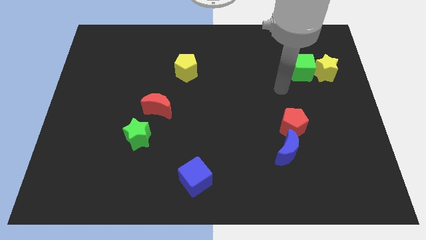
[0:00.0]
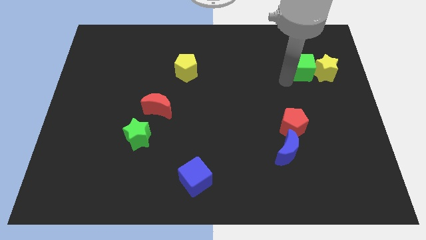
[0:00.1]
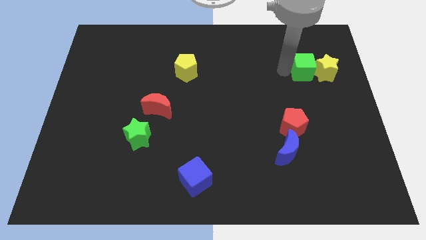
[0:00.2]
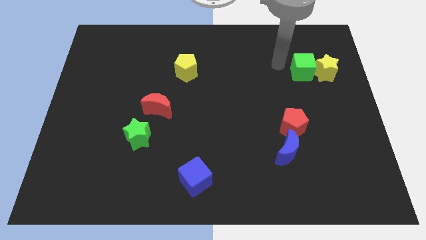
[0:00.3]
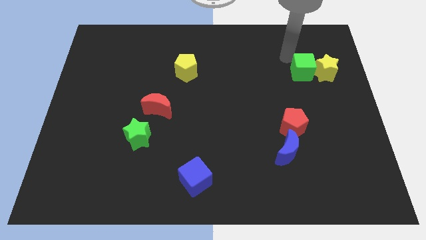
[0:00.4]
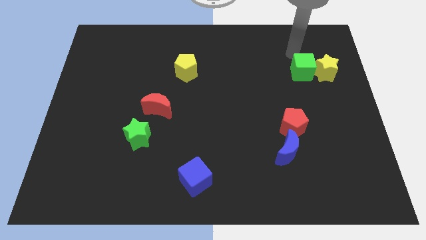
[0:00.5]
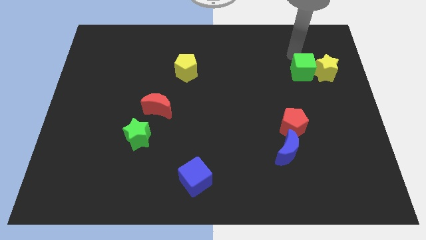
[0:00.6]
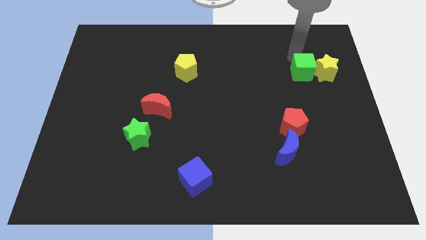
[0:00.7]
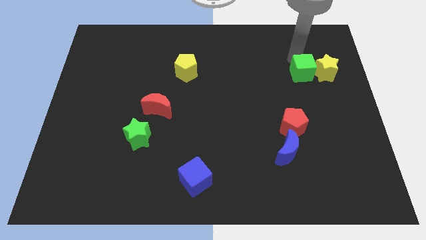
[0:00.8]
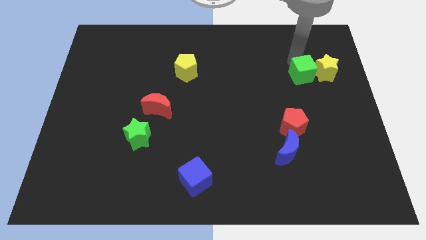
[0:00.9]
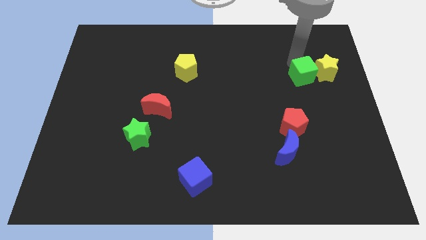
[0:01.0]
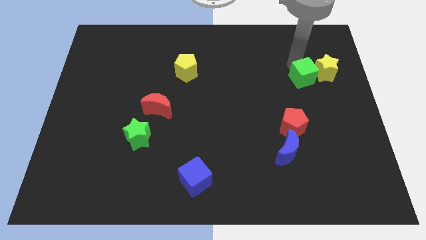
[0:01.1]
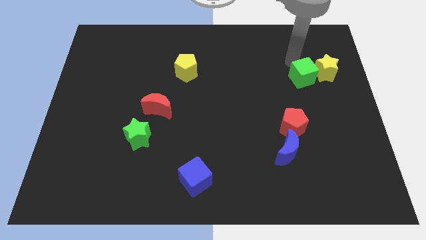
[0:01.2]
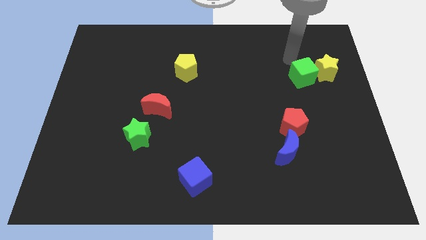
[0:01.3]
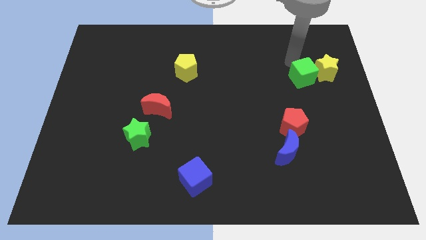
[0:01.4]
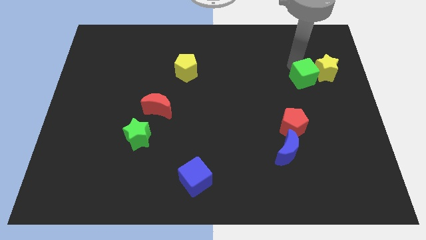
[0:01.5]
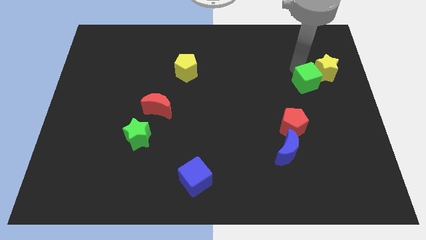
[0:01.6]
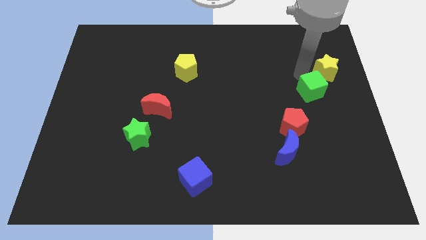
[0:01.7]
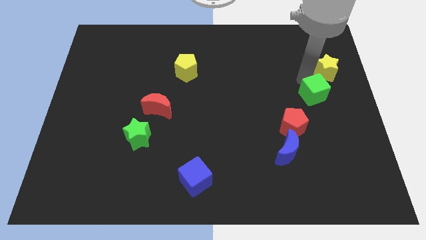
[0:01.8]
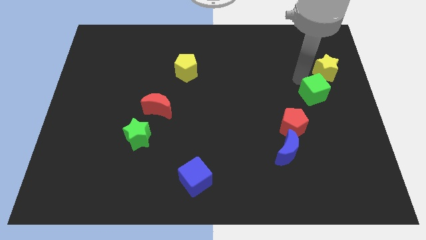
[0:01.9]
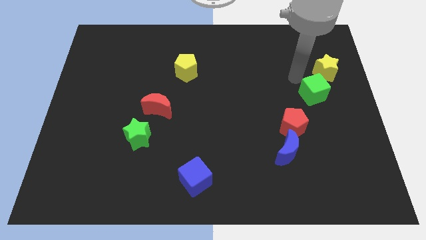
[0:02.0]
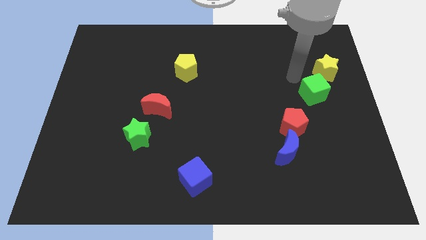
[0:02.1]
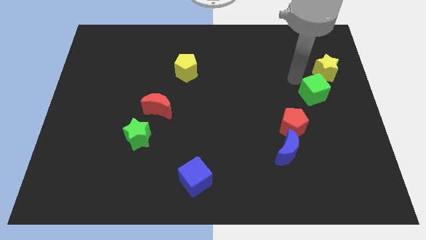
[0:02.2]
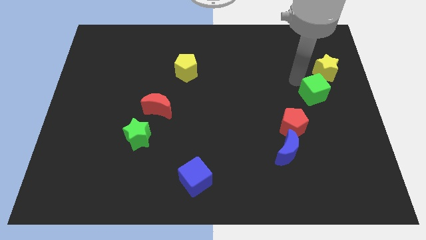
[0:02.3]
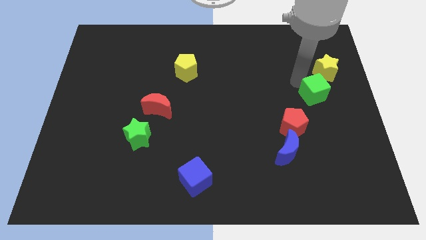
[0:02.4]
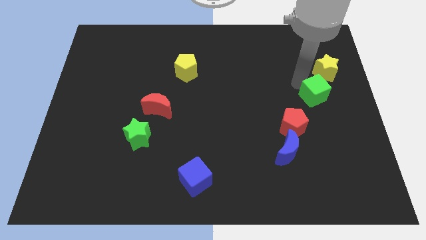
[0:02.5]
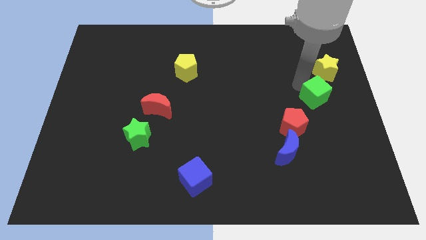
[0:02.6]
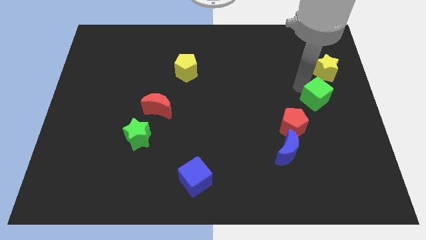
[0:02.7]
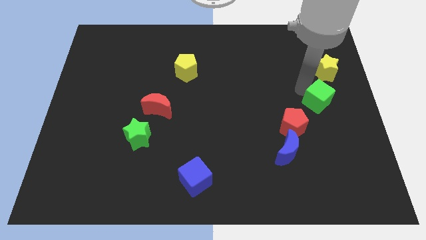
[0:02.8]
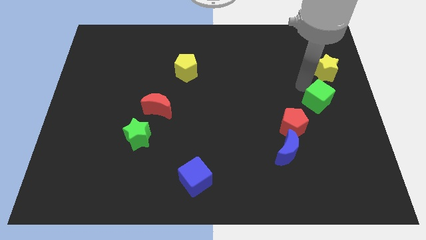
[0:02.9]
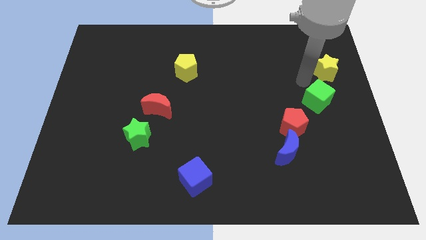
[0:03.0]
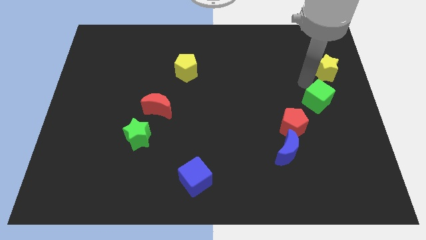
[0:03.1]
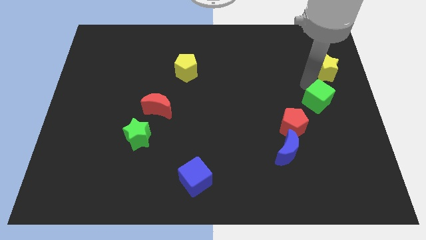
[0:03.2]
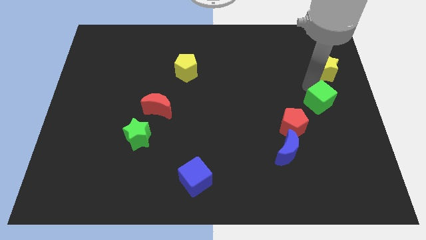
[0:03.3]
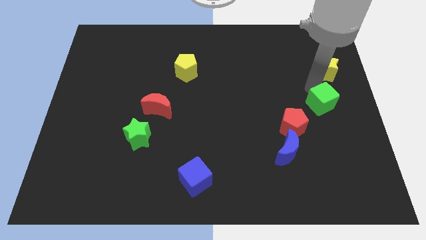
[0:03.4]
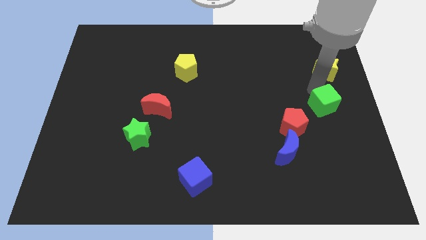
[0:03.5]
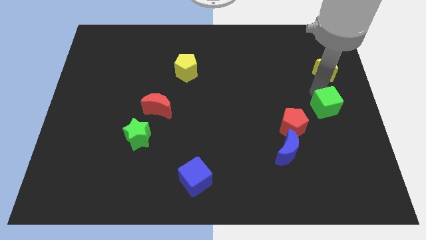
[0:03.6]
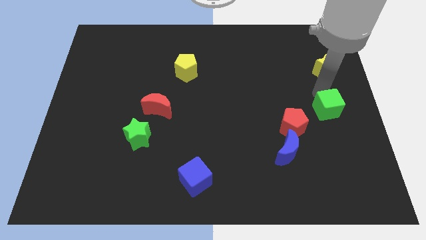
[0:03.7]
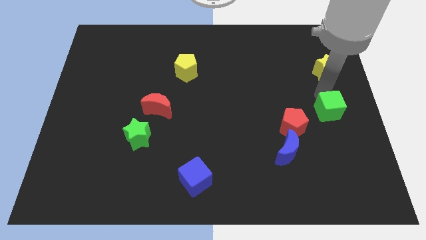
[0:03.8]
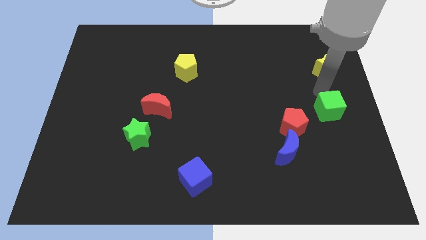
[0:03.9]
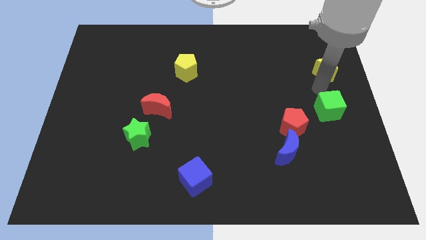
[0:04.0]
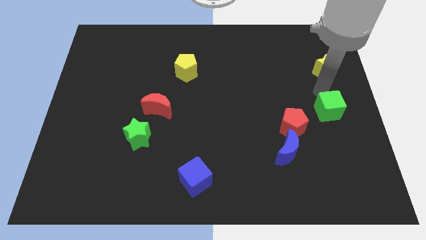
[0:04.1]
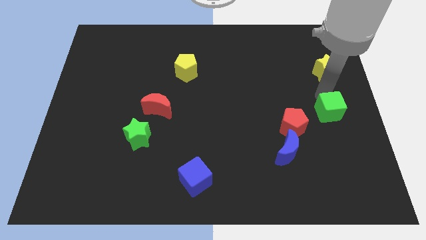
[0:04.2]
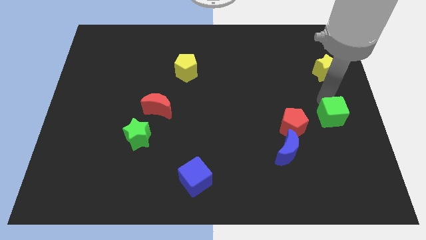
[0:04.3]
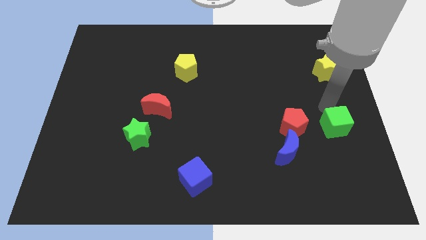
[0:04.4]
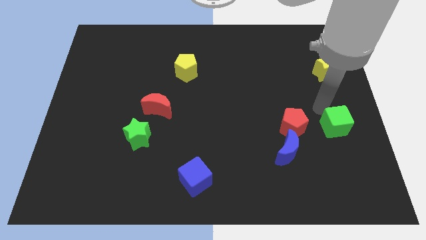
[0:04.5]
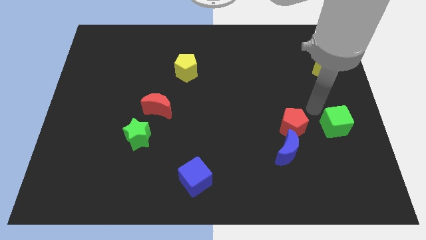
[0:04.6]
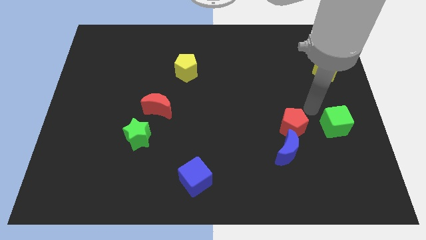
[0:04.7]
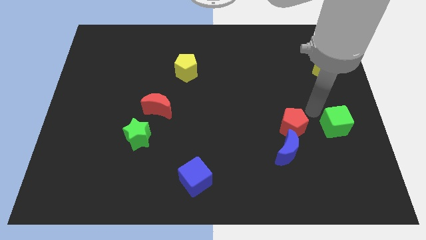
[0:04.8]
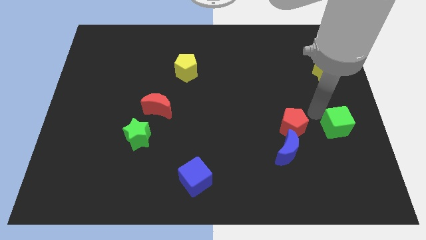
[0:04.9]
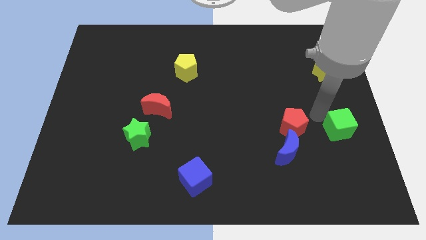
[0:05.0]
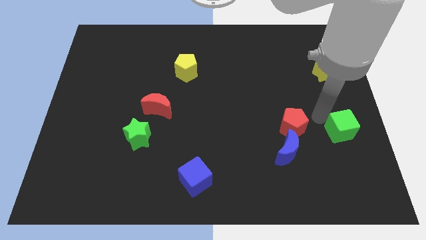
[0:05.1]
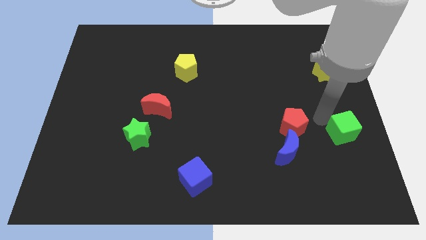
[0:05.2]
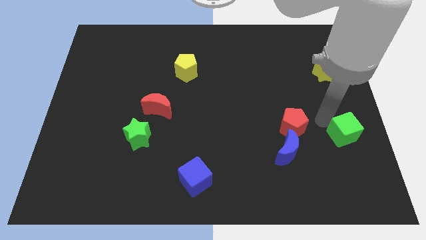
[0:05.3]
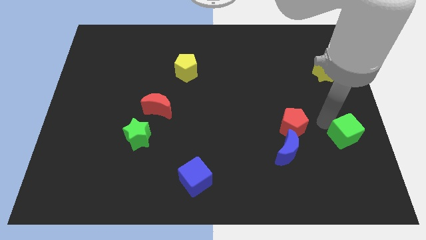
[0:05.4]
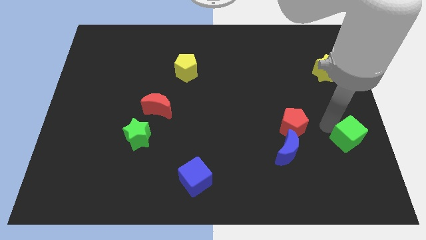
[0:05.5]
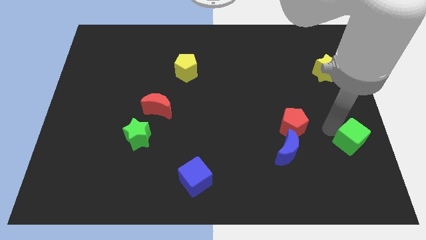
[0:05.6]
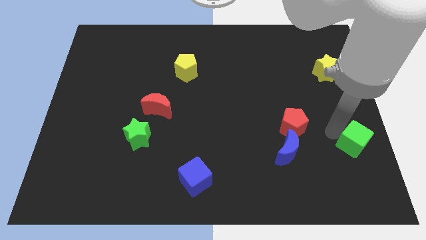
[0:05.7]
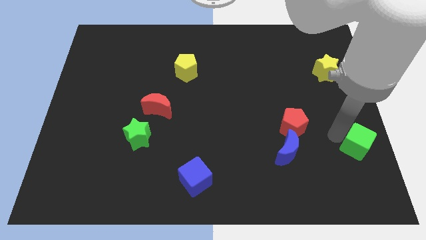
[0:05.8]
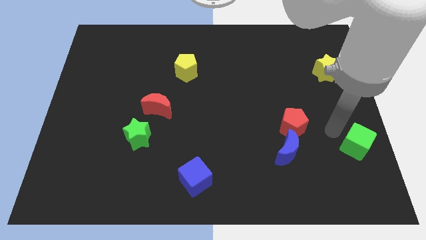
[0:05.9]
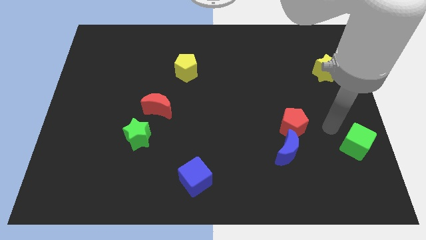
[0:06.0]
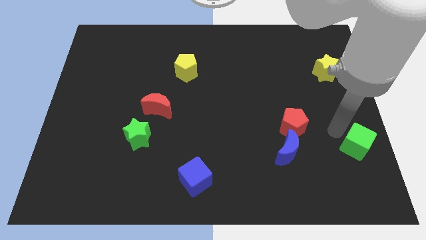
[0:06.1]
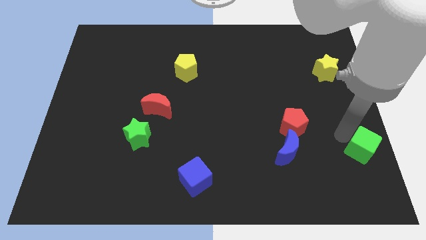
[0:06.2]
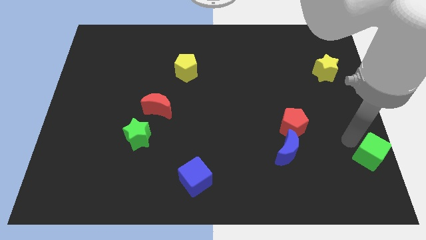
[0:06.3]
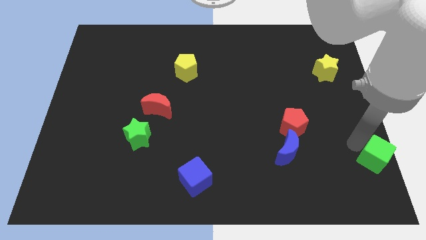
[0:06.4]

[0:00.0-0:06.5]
put the green cube to the bottom right
